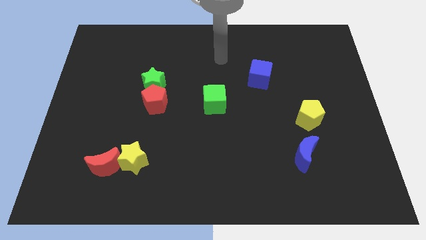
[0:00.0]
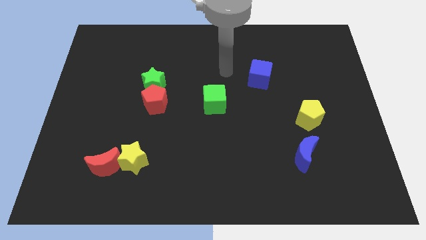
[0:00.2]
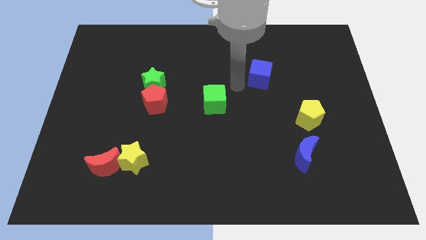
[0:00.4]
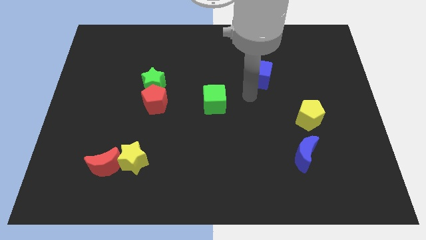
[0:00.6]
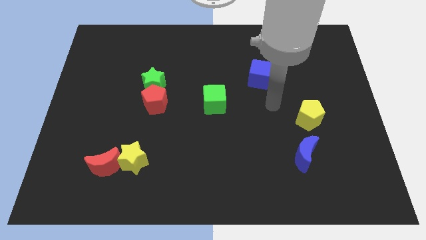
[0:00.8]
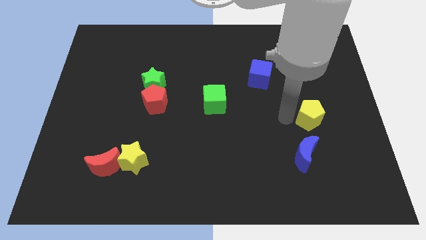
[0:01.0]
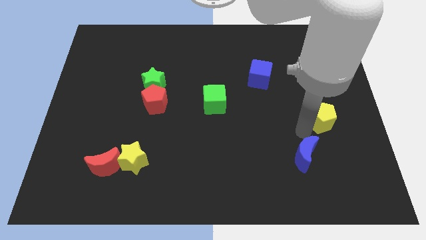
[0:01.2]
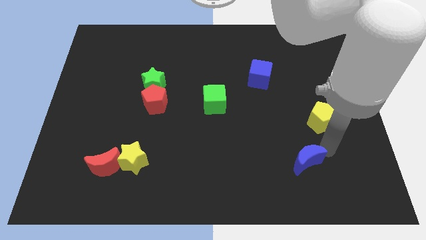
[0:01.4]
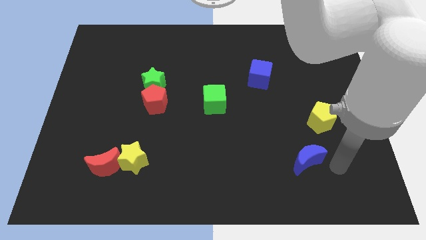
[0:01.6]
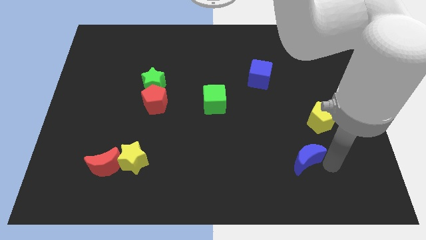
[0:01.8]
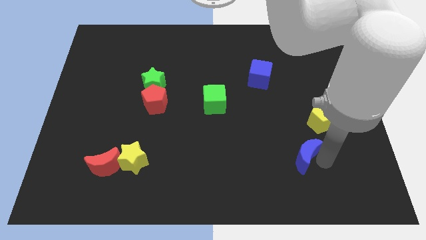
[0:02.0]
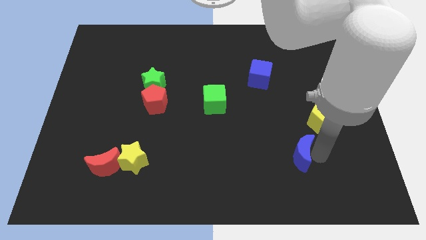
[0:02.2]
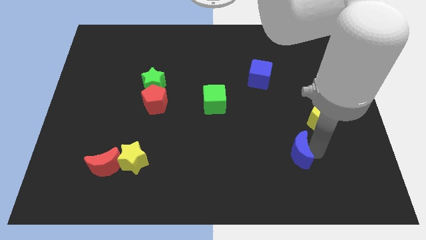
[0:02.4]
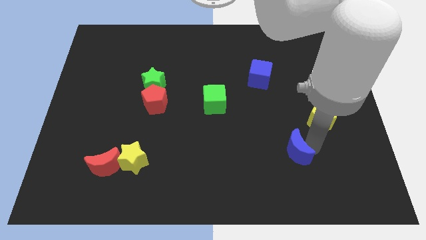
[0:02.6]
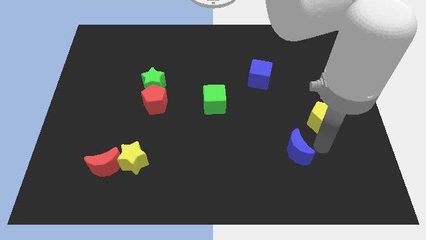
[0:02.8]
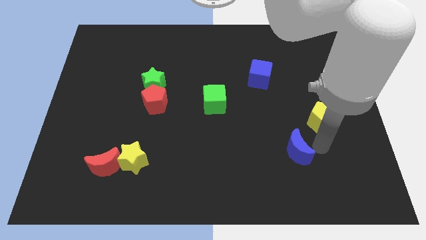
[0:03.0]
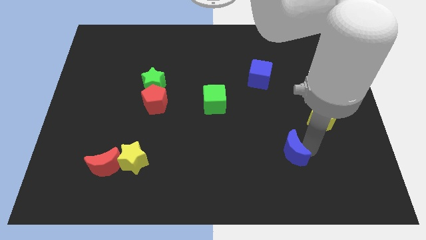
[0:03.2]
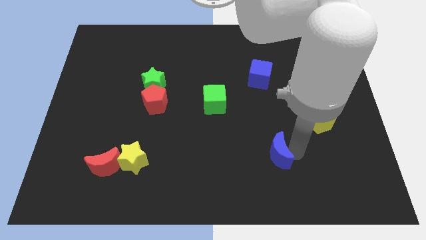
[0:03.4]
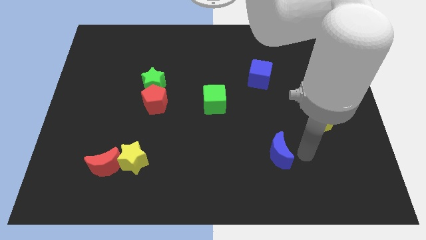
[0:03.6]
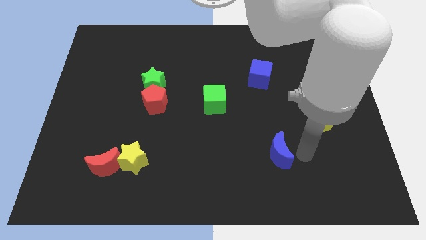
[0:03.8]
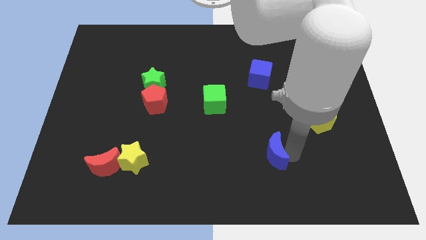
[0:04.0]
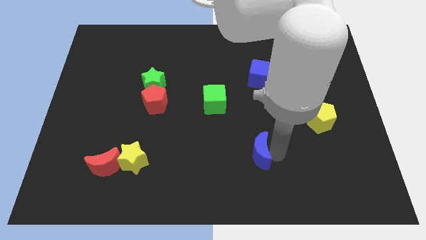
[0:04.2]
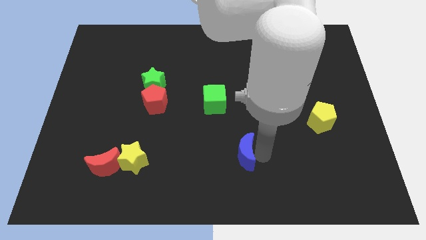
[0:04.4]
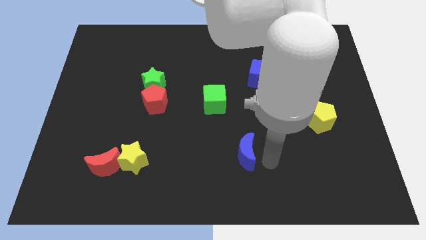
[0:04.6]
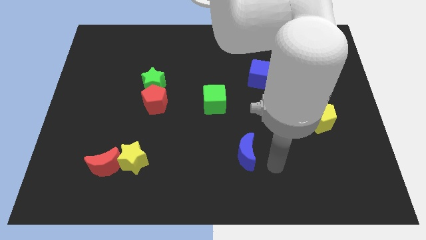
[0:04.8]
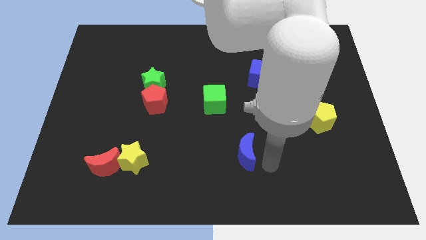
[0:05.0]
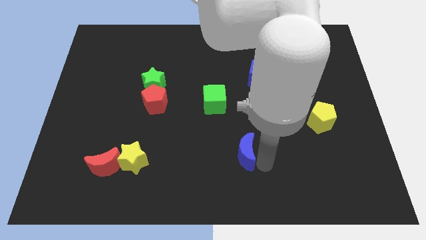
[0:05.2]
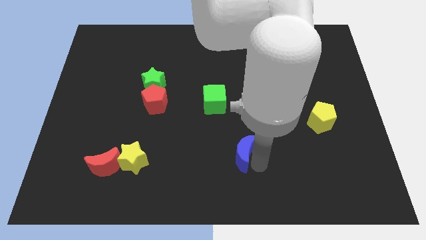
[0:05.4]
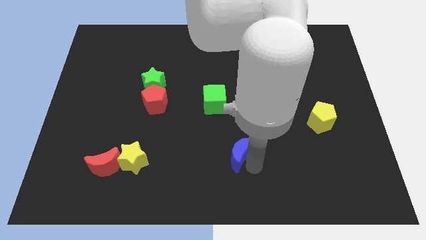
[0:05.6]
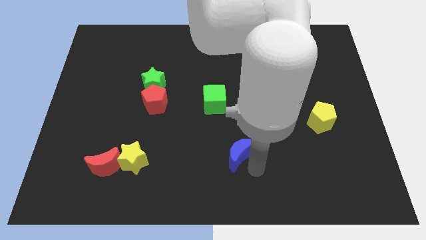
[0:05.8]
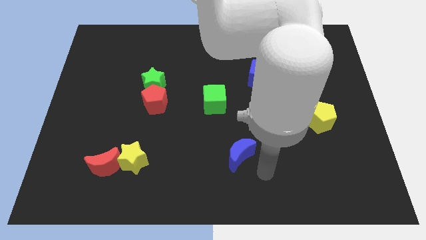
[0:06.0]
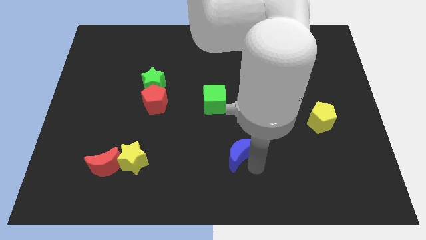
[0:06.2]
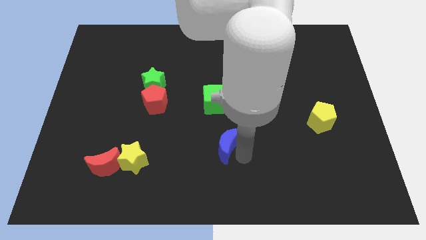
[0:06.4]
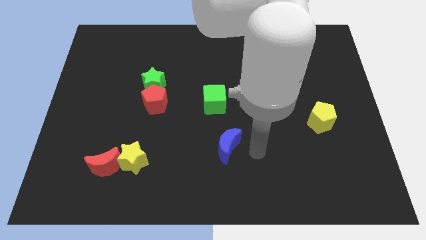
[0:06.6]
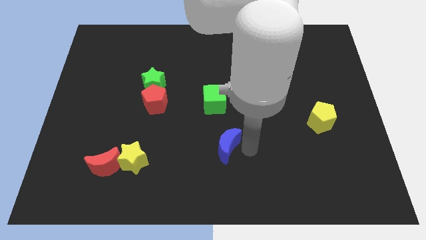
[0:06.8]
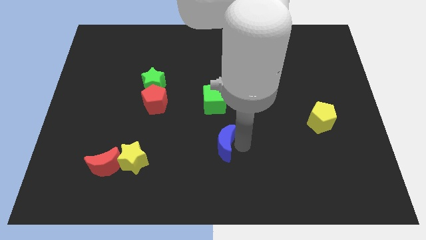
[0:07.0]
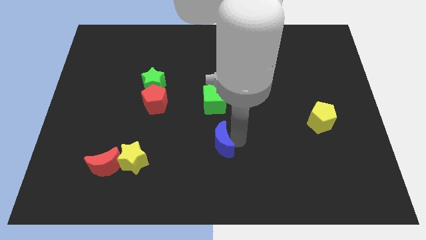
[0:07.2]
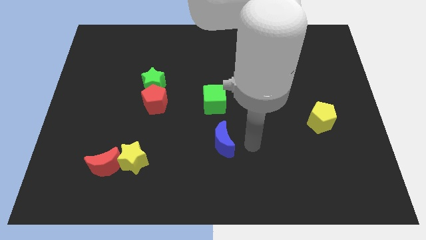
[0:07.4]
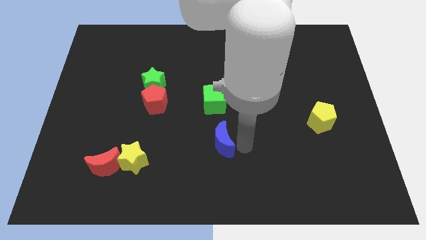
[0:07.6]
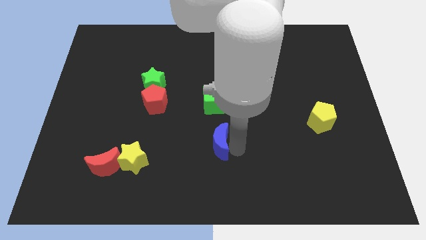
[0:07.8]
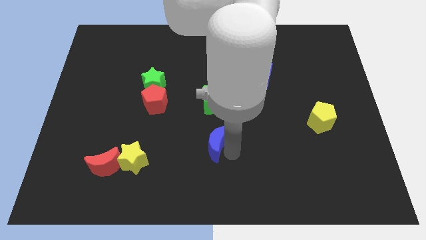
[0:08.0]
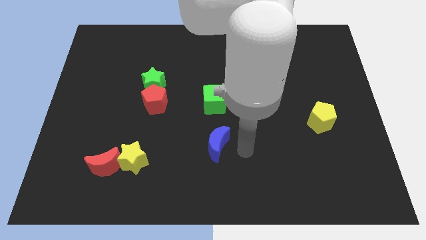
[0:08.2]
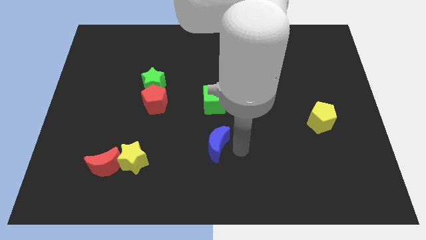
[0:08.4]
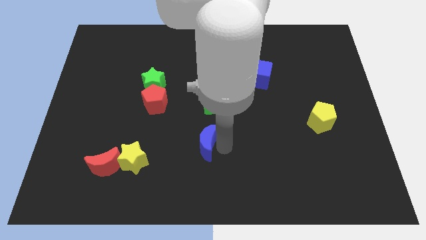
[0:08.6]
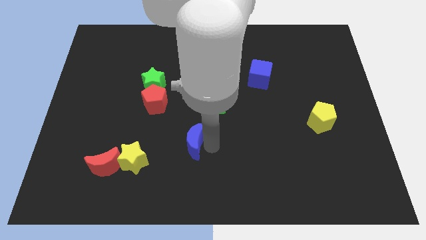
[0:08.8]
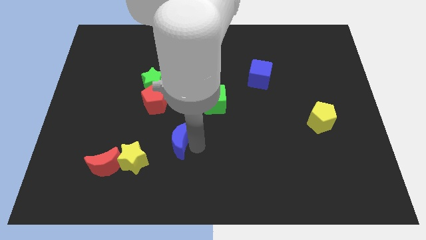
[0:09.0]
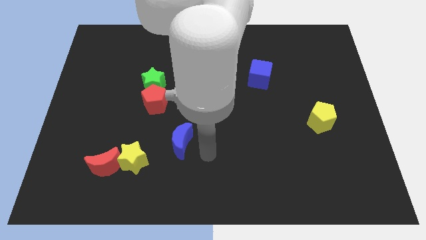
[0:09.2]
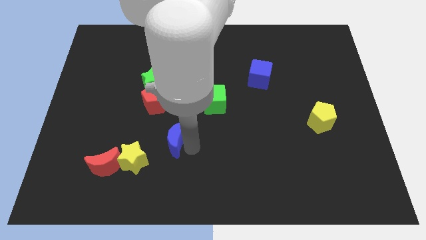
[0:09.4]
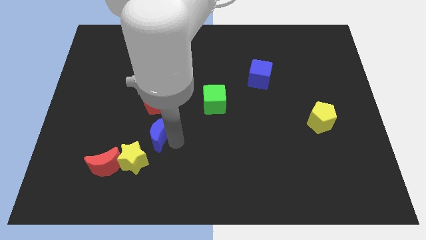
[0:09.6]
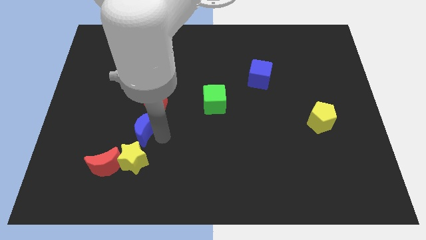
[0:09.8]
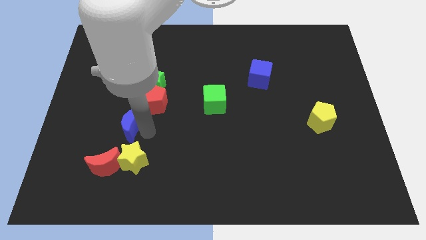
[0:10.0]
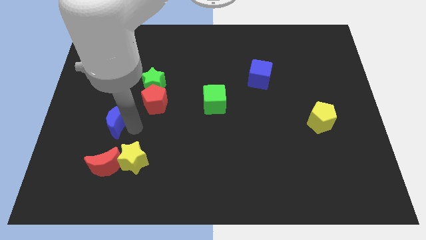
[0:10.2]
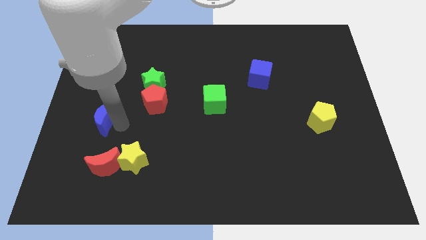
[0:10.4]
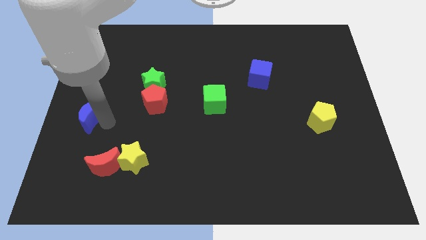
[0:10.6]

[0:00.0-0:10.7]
slide the blue moon to the left side of the board
